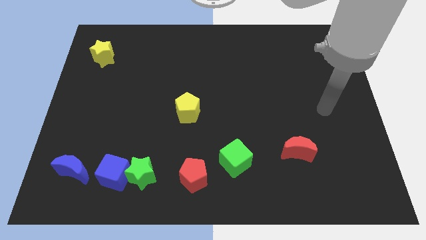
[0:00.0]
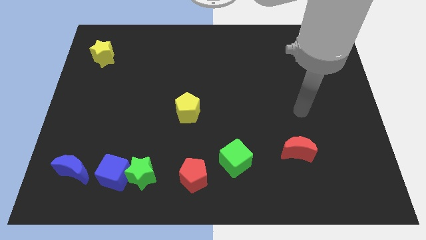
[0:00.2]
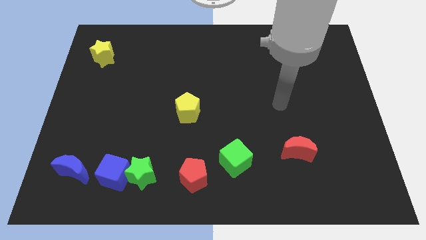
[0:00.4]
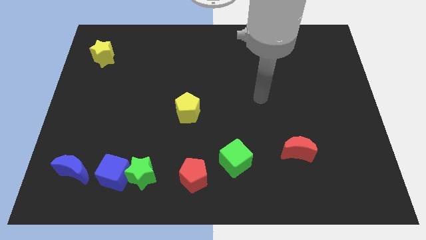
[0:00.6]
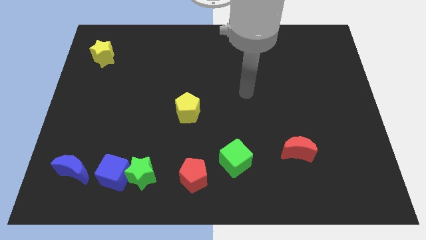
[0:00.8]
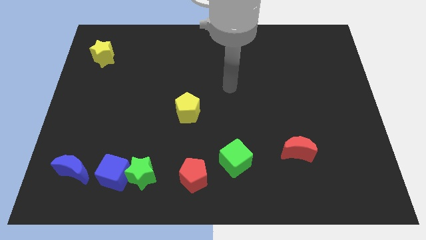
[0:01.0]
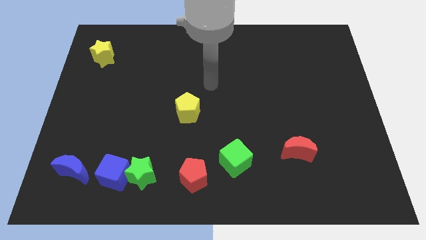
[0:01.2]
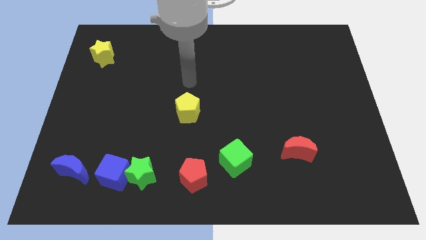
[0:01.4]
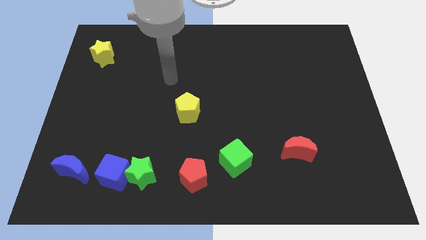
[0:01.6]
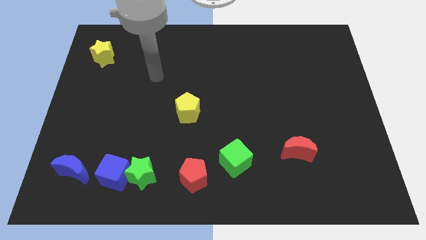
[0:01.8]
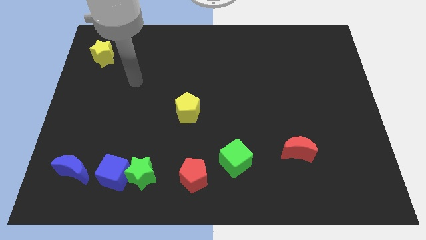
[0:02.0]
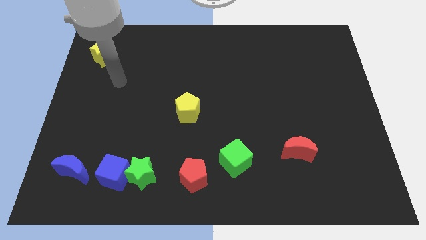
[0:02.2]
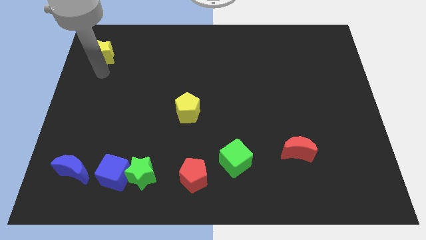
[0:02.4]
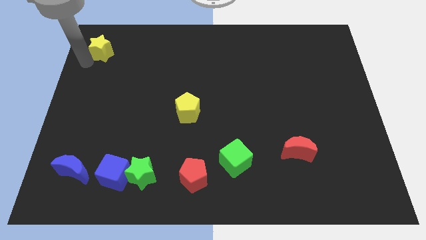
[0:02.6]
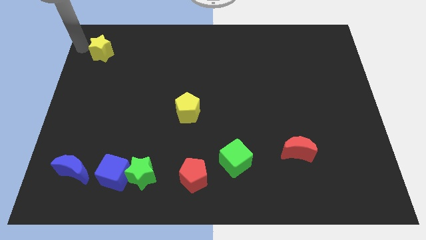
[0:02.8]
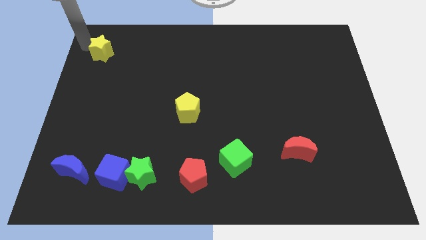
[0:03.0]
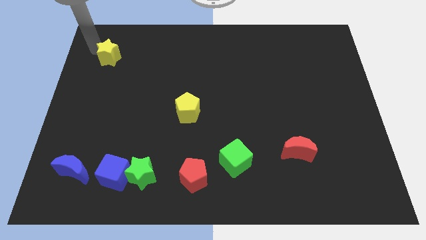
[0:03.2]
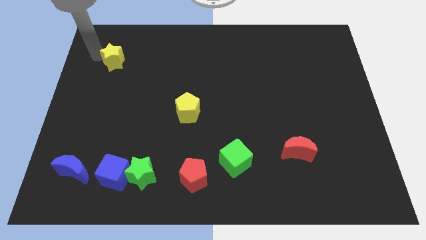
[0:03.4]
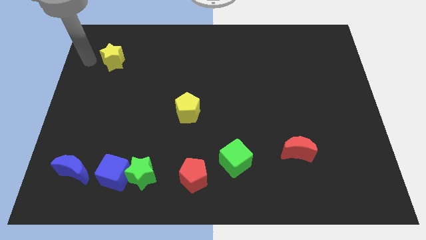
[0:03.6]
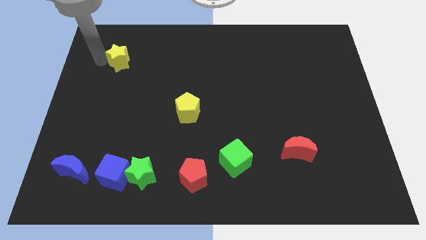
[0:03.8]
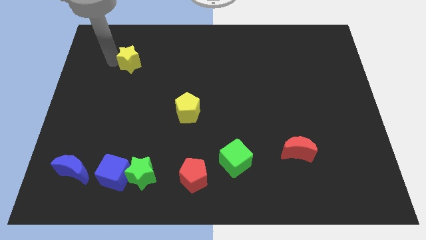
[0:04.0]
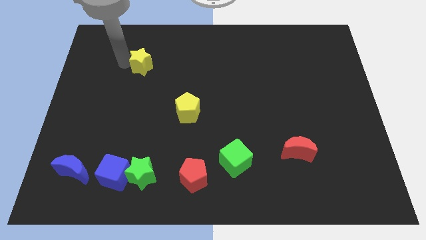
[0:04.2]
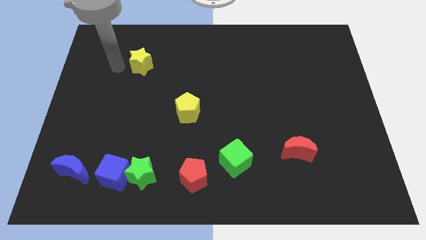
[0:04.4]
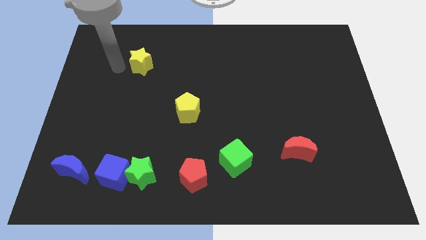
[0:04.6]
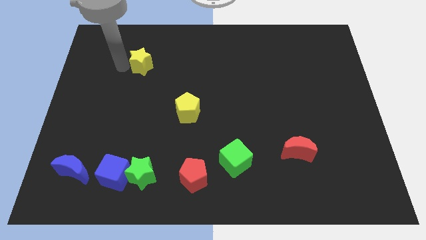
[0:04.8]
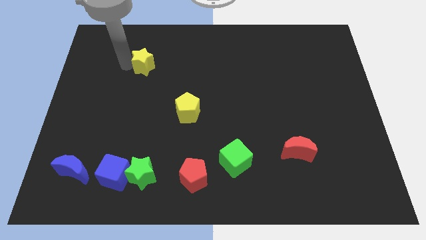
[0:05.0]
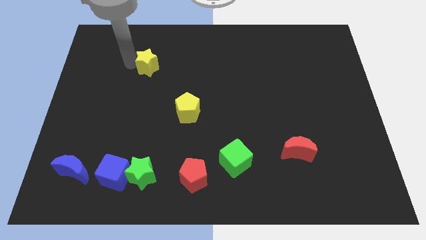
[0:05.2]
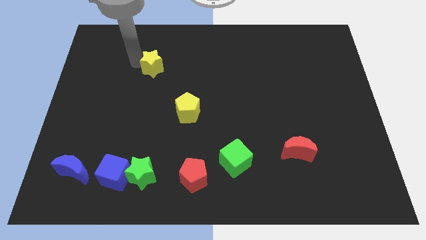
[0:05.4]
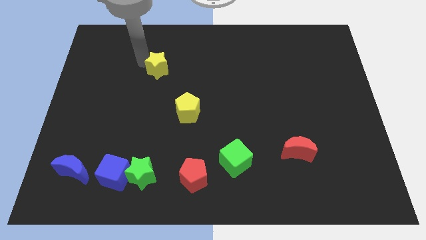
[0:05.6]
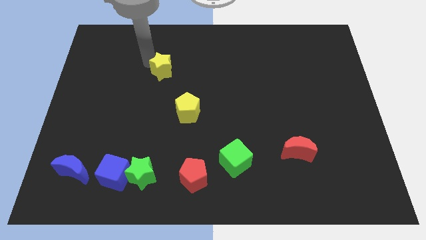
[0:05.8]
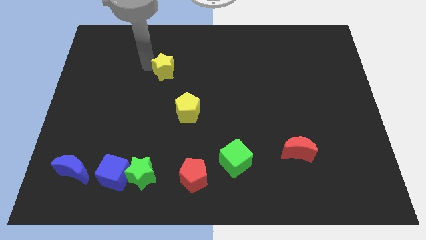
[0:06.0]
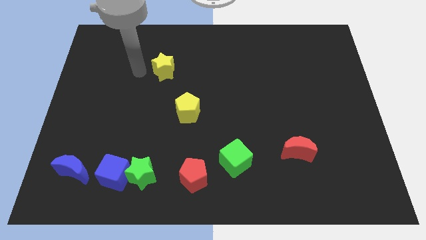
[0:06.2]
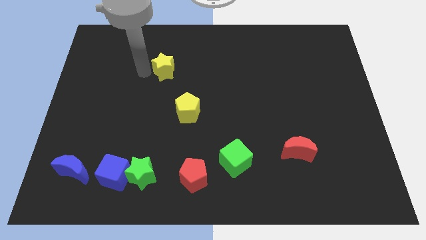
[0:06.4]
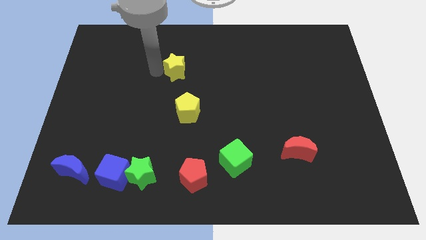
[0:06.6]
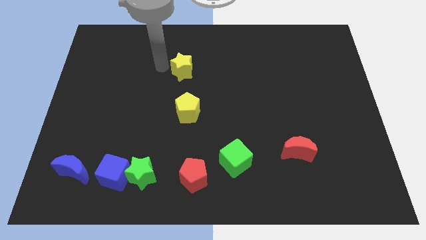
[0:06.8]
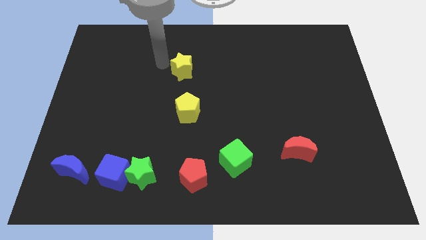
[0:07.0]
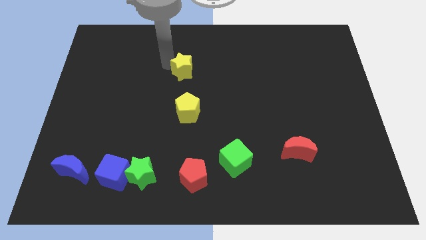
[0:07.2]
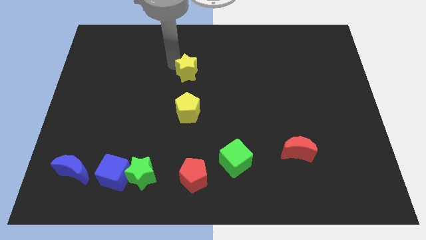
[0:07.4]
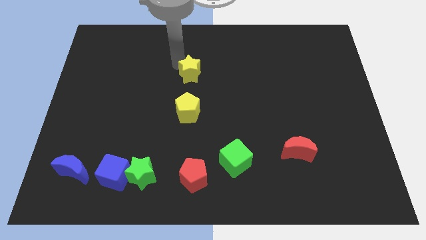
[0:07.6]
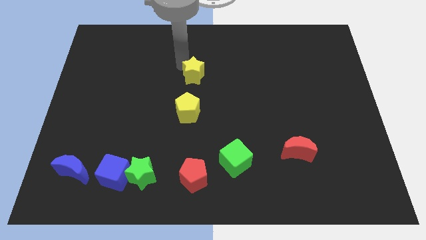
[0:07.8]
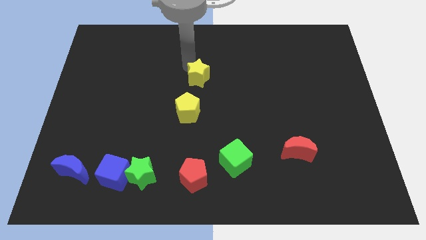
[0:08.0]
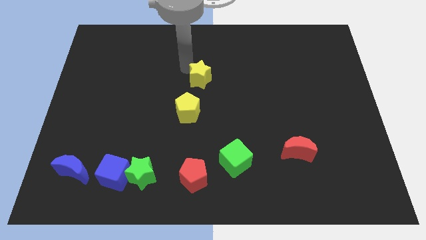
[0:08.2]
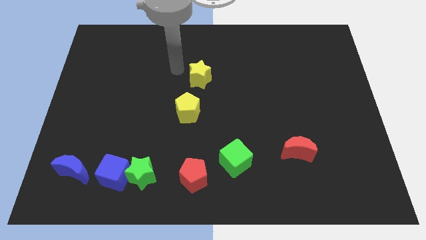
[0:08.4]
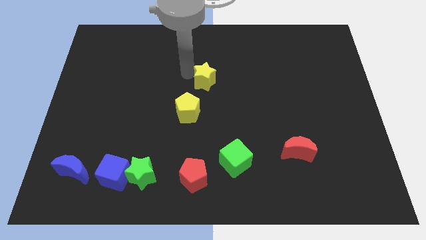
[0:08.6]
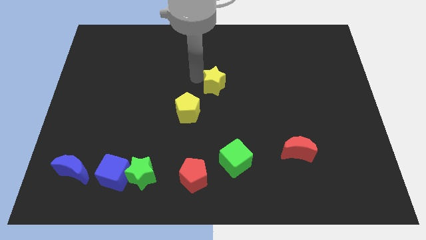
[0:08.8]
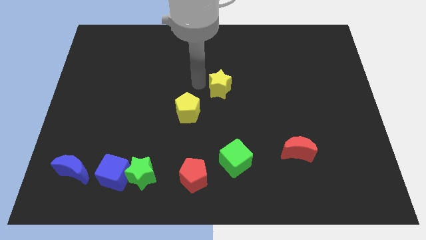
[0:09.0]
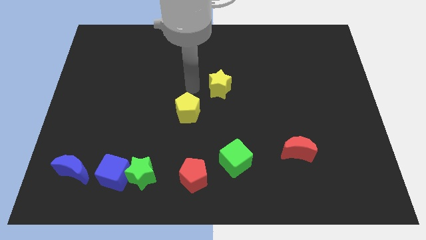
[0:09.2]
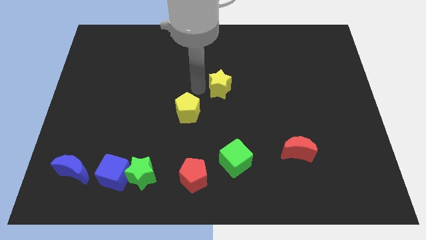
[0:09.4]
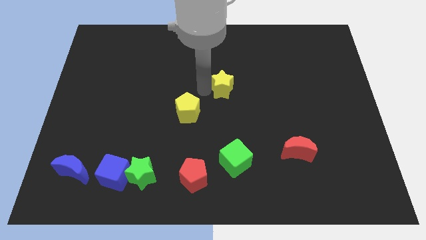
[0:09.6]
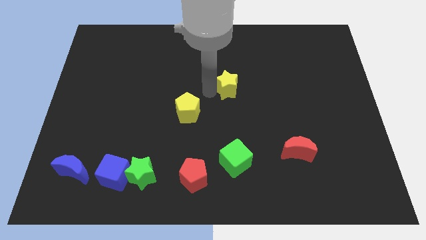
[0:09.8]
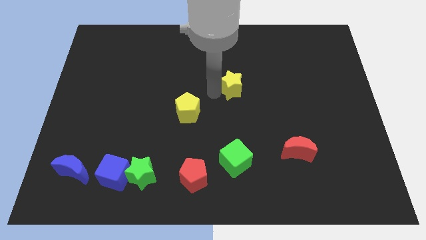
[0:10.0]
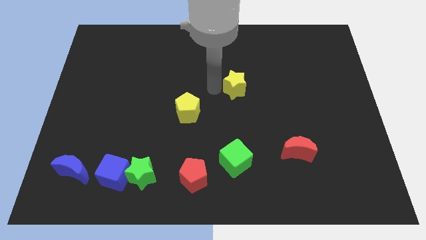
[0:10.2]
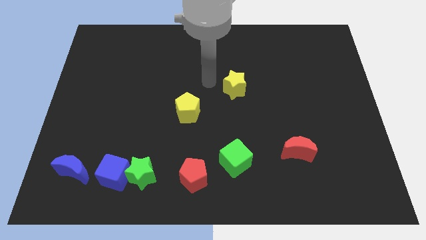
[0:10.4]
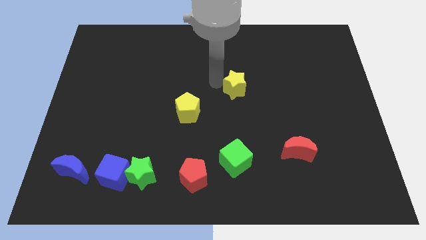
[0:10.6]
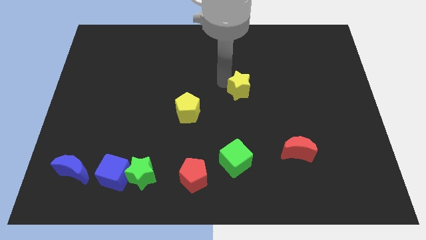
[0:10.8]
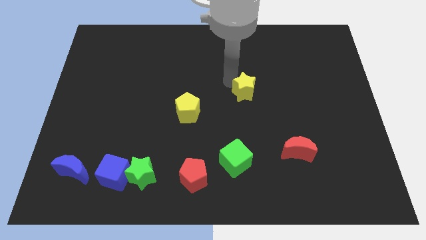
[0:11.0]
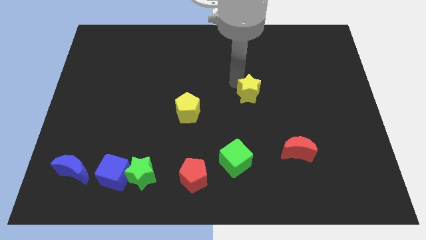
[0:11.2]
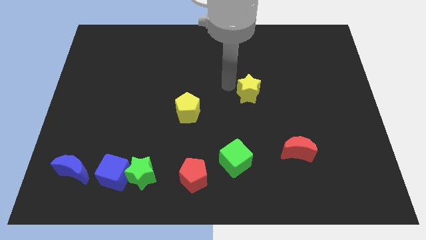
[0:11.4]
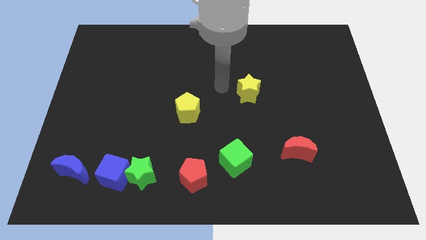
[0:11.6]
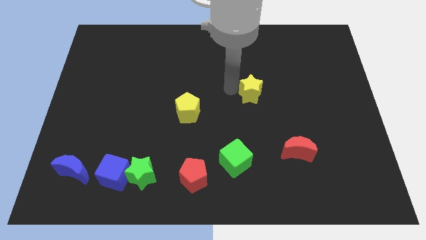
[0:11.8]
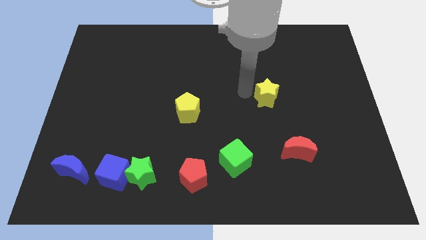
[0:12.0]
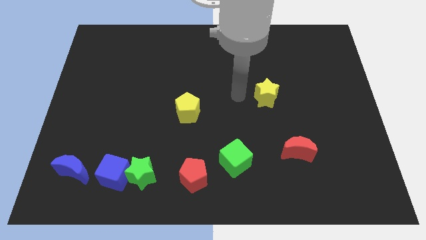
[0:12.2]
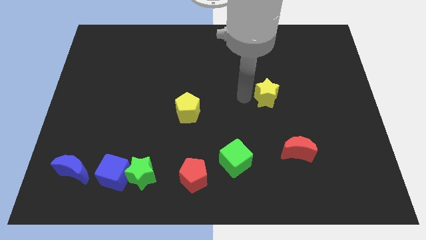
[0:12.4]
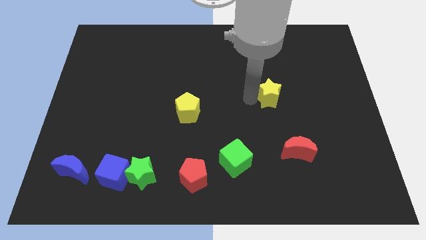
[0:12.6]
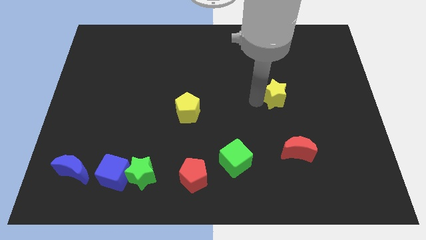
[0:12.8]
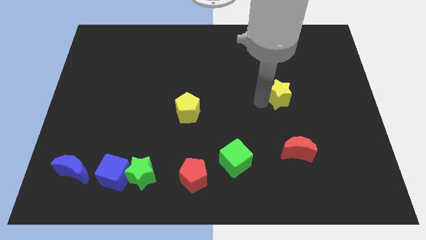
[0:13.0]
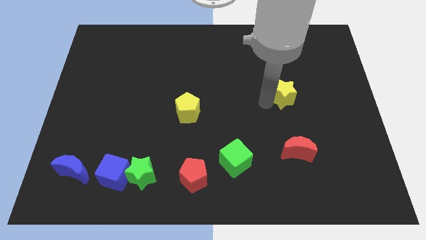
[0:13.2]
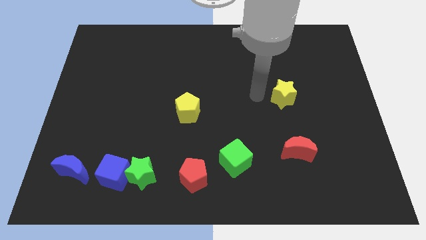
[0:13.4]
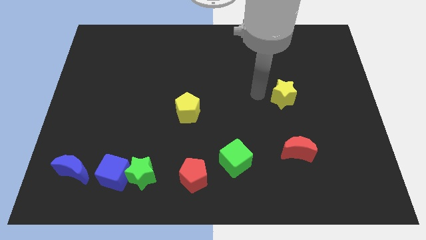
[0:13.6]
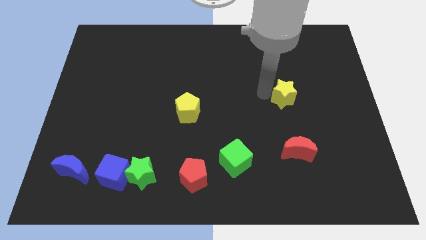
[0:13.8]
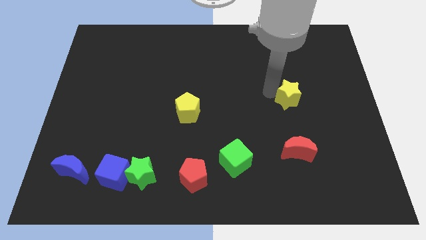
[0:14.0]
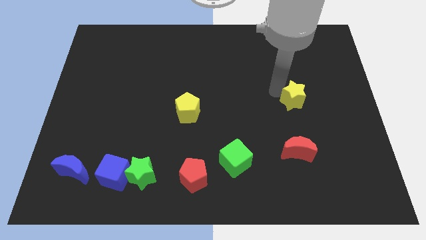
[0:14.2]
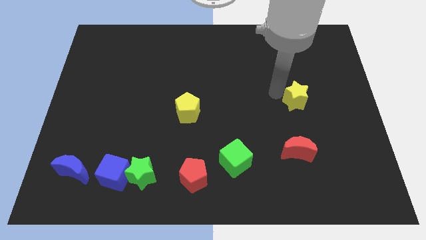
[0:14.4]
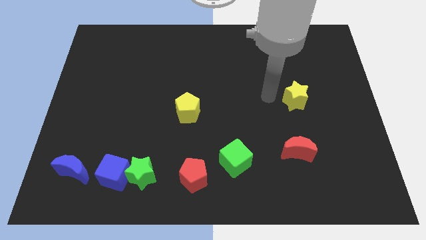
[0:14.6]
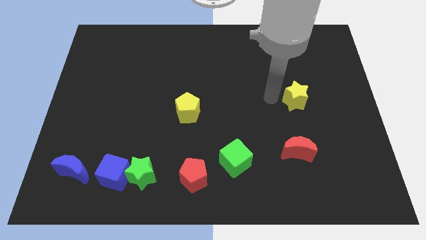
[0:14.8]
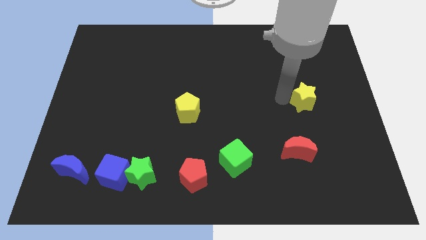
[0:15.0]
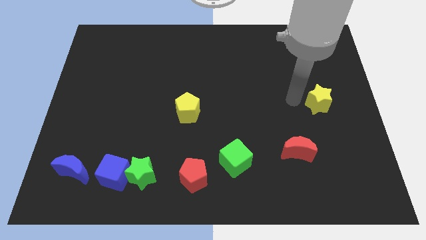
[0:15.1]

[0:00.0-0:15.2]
push the yellow star to the right side of the board
